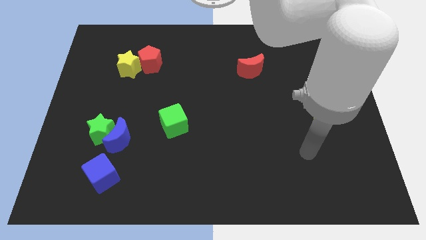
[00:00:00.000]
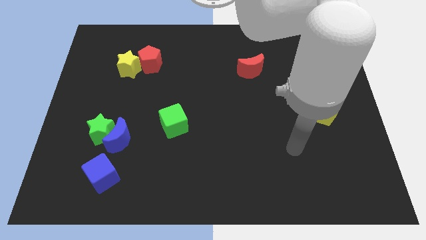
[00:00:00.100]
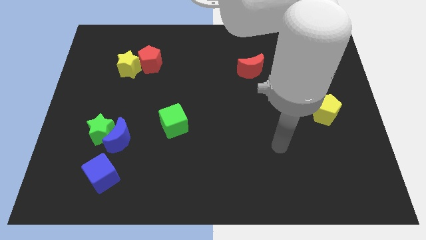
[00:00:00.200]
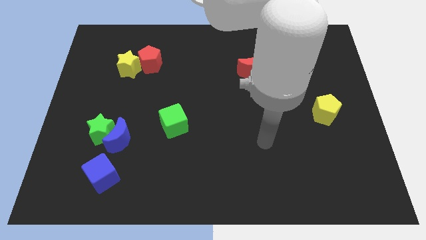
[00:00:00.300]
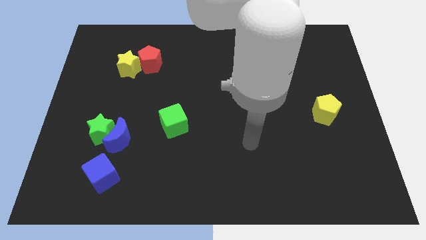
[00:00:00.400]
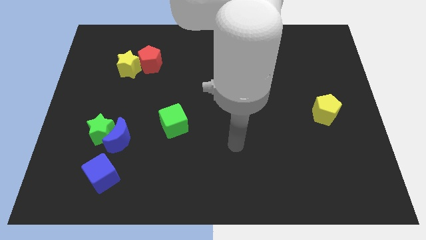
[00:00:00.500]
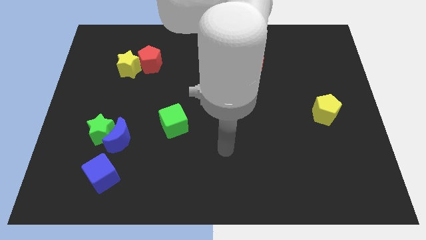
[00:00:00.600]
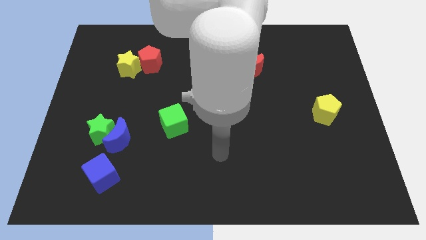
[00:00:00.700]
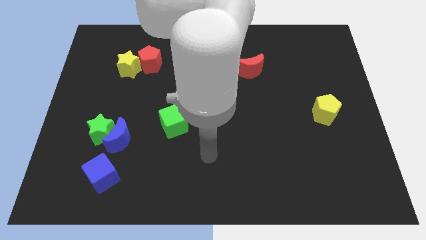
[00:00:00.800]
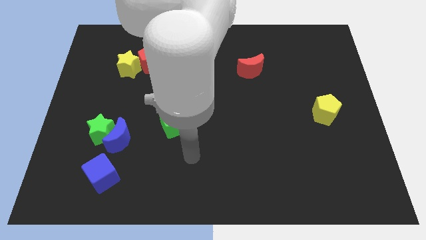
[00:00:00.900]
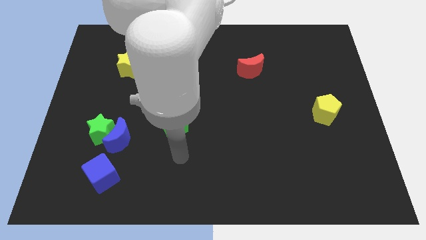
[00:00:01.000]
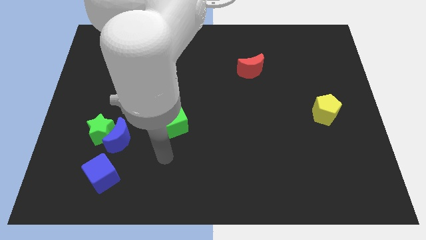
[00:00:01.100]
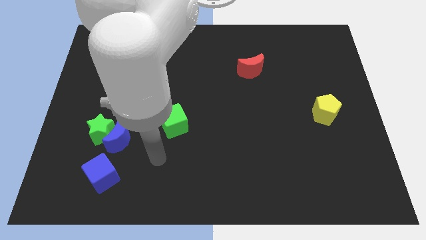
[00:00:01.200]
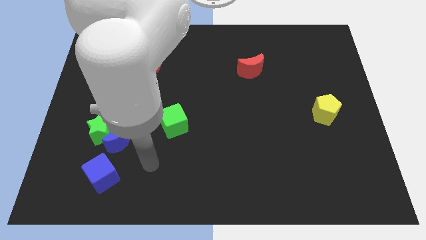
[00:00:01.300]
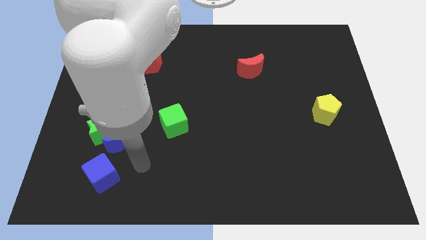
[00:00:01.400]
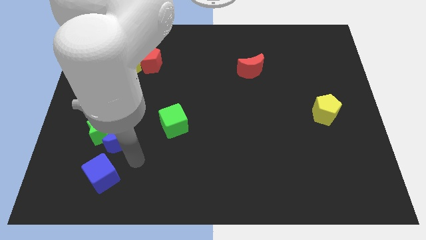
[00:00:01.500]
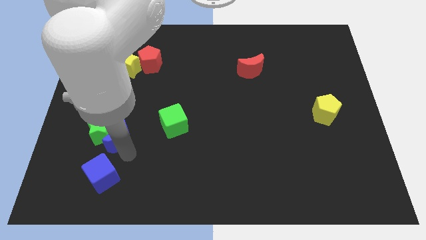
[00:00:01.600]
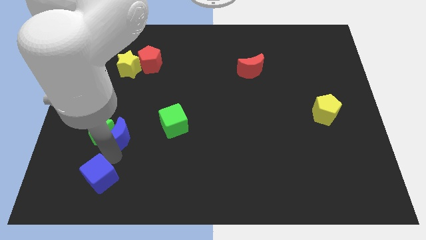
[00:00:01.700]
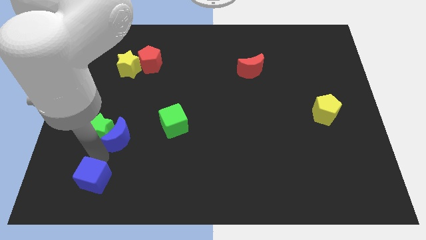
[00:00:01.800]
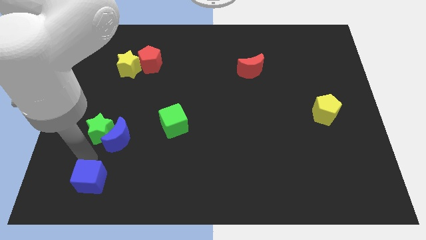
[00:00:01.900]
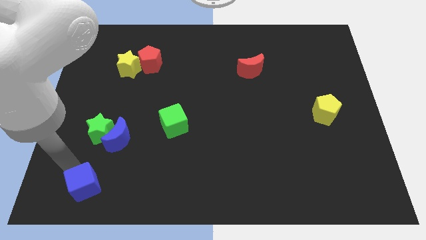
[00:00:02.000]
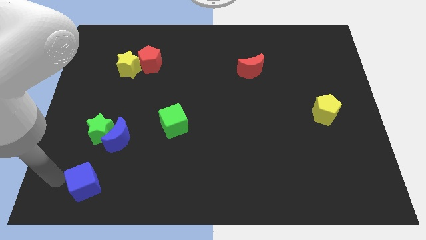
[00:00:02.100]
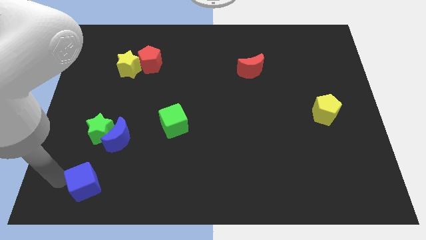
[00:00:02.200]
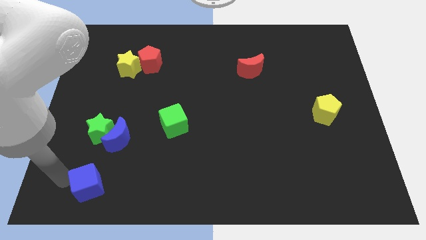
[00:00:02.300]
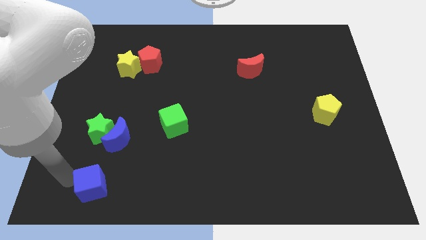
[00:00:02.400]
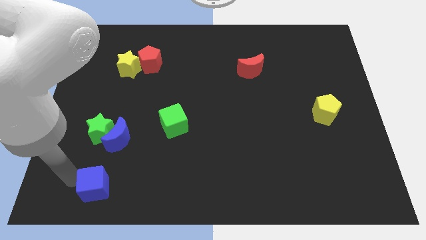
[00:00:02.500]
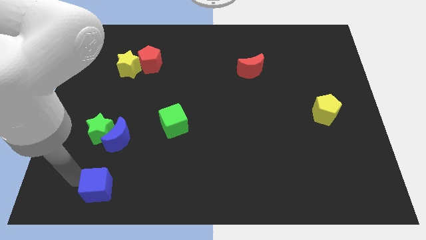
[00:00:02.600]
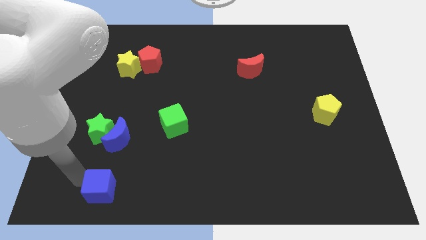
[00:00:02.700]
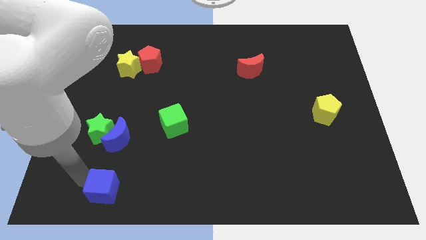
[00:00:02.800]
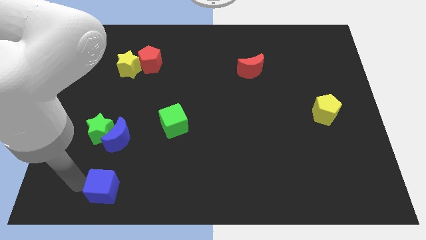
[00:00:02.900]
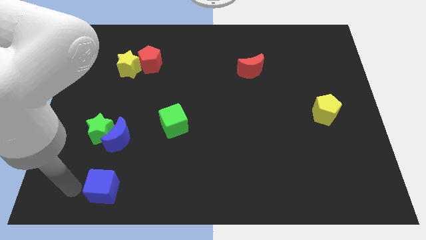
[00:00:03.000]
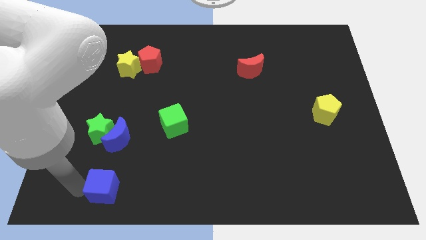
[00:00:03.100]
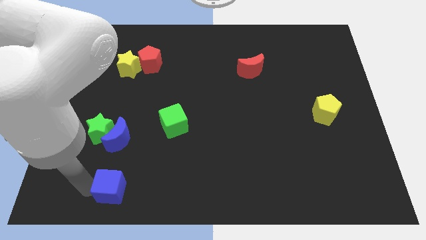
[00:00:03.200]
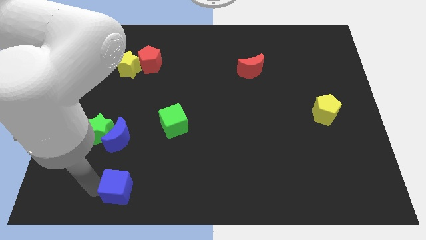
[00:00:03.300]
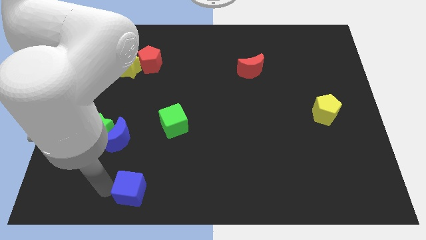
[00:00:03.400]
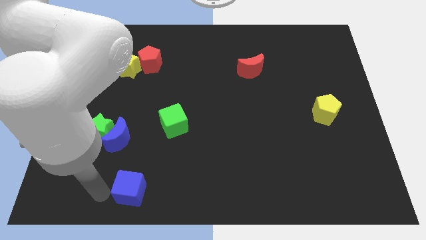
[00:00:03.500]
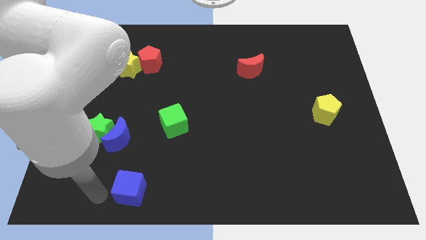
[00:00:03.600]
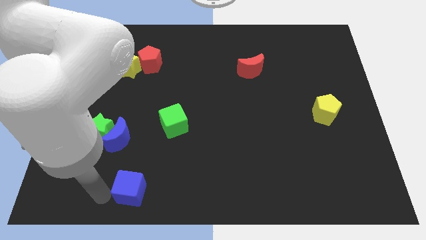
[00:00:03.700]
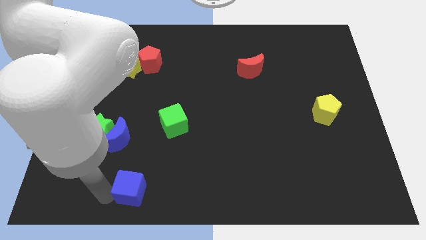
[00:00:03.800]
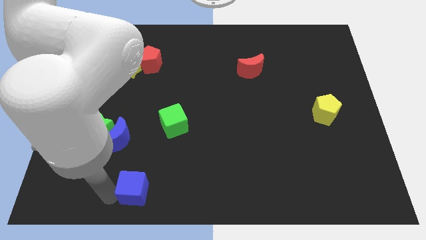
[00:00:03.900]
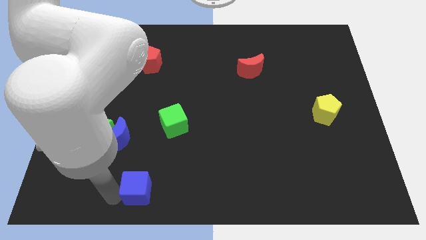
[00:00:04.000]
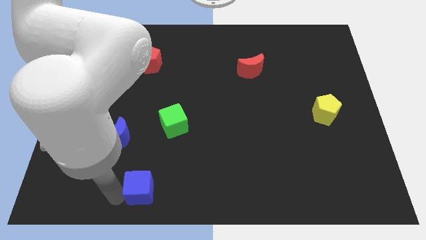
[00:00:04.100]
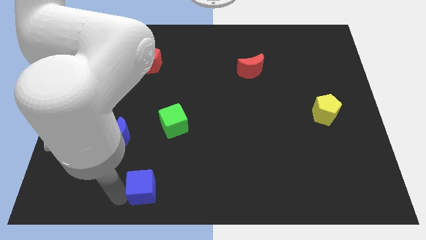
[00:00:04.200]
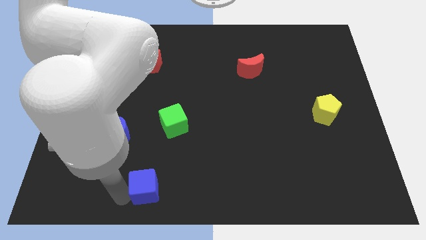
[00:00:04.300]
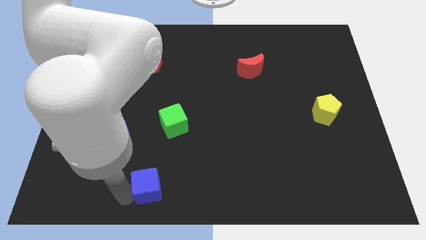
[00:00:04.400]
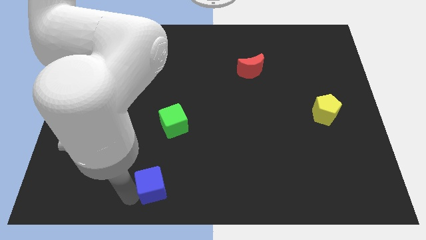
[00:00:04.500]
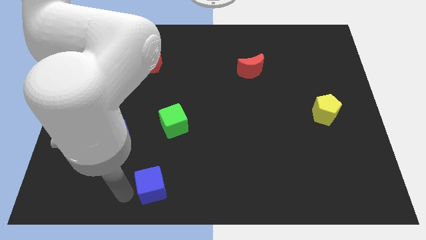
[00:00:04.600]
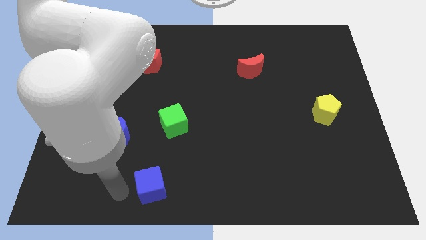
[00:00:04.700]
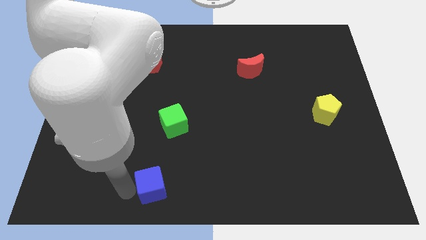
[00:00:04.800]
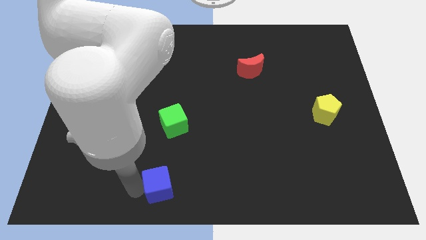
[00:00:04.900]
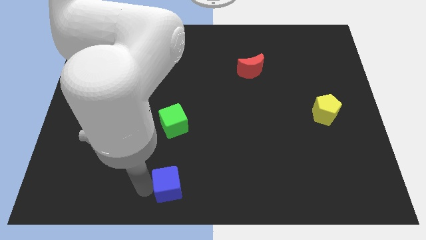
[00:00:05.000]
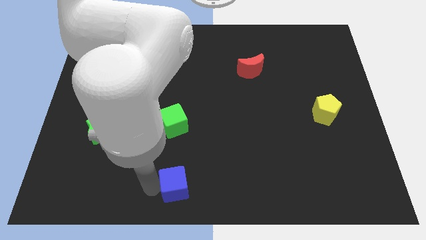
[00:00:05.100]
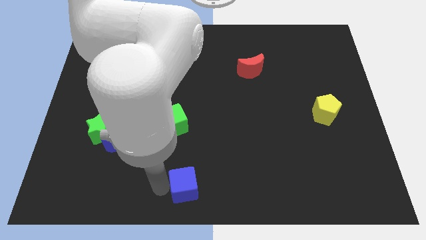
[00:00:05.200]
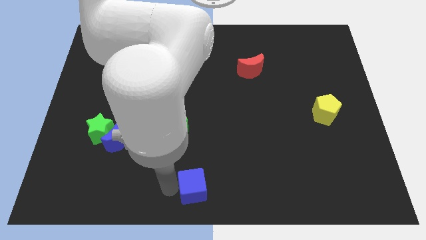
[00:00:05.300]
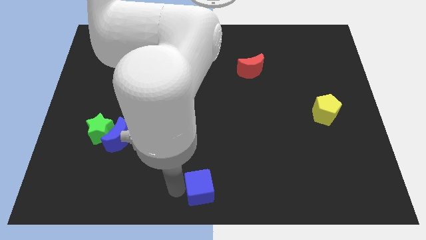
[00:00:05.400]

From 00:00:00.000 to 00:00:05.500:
push the blue cube right

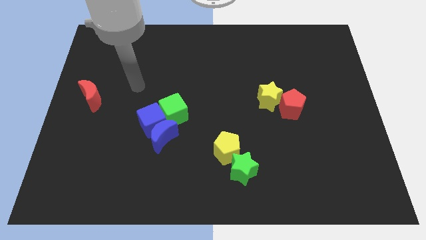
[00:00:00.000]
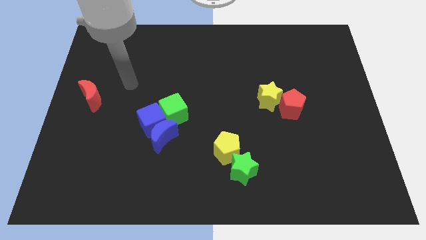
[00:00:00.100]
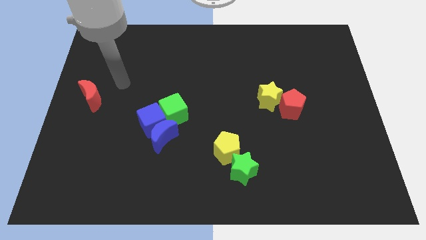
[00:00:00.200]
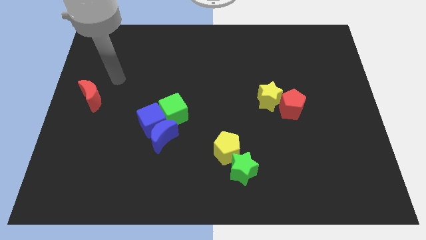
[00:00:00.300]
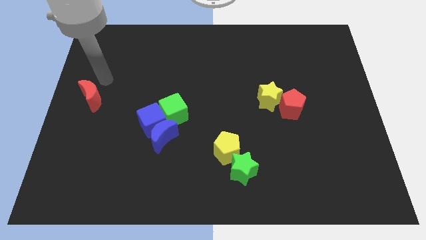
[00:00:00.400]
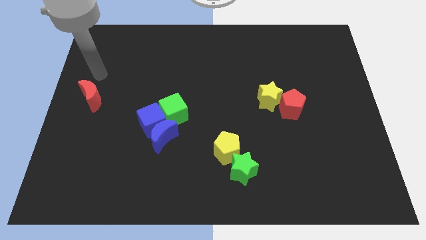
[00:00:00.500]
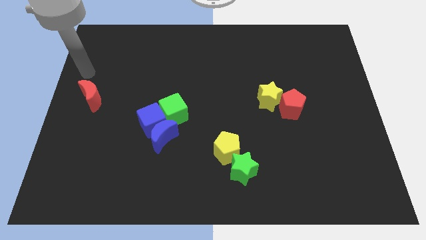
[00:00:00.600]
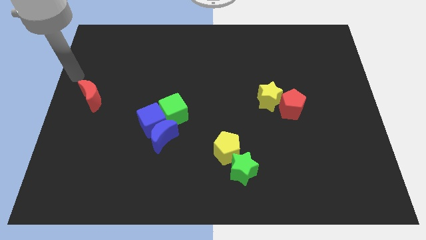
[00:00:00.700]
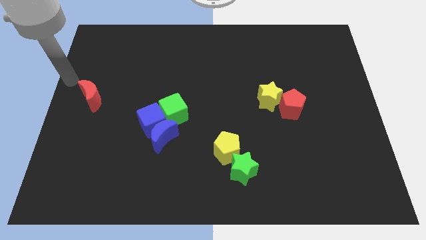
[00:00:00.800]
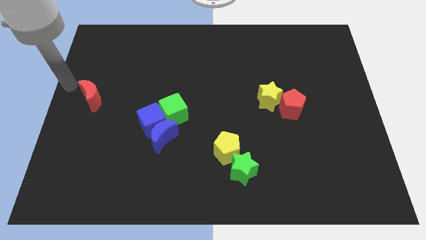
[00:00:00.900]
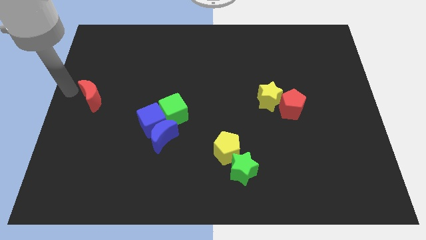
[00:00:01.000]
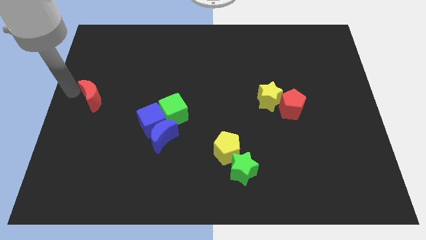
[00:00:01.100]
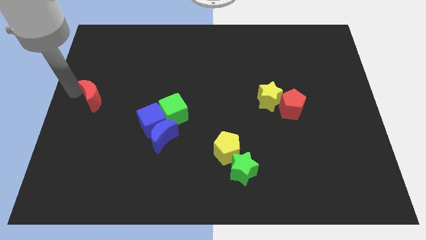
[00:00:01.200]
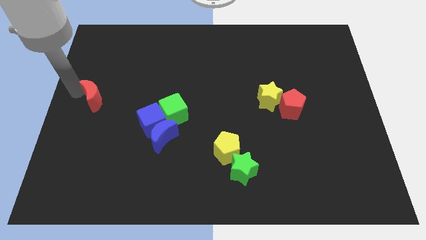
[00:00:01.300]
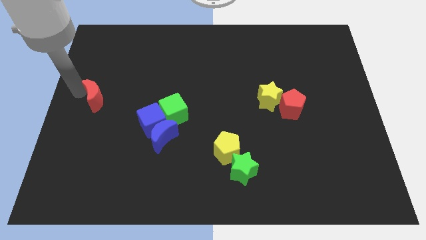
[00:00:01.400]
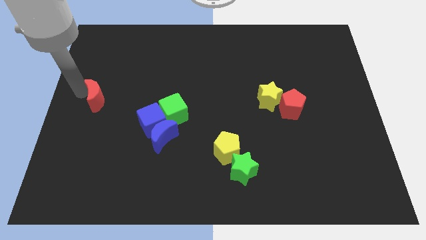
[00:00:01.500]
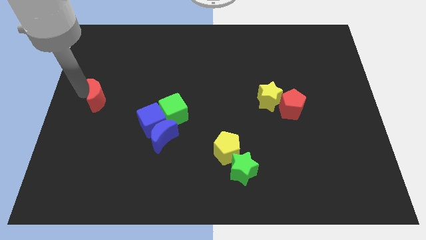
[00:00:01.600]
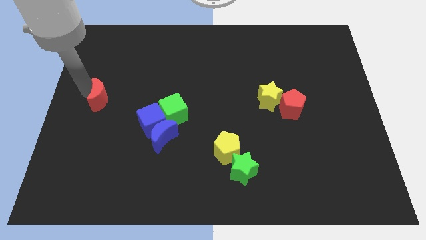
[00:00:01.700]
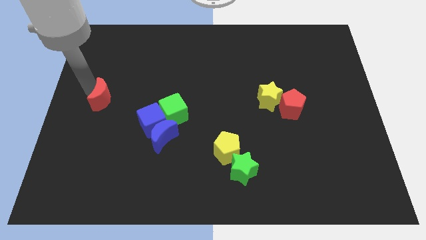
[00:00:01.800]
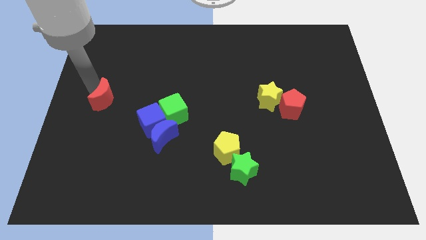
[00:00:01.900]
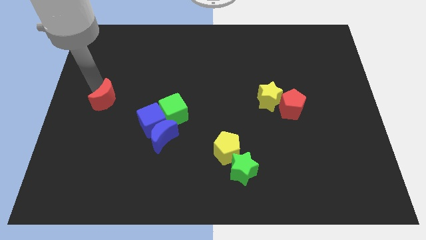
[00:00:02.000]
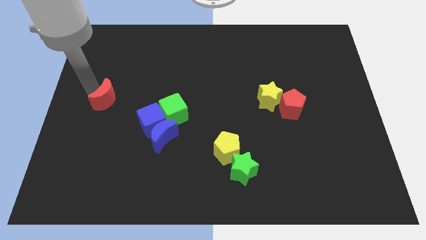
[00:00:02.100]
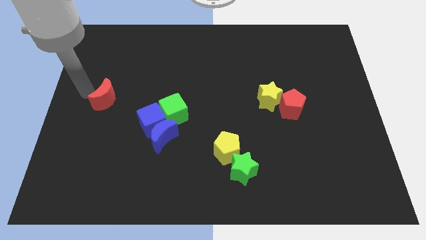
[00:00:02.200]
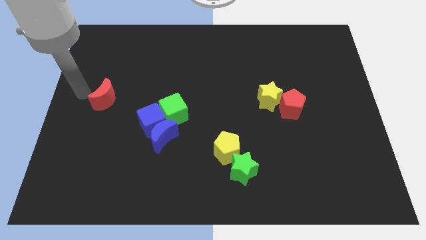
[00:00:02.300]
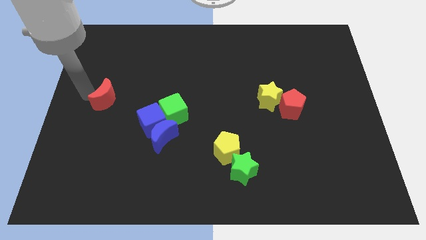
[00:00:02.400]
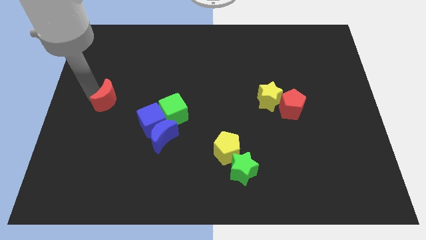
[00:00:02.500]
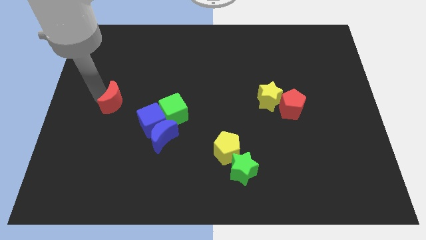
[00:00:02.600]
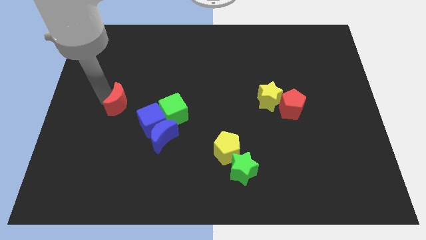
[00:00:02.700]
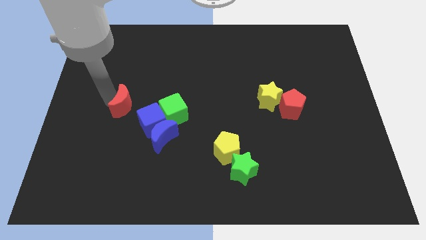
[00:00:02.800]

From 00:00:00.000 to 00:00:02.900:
push the red moon a little to the right
